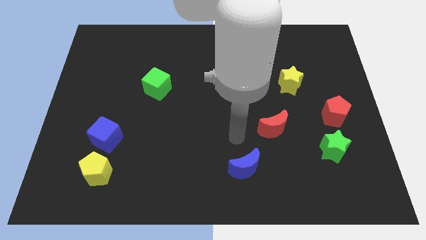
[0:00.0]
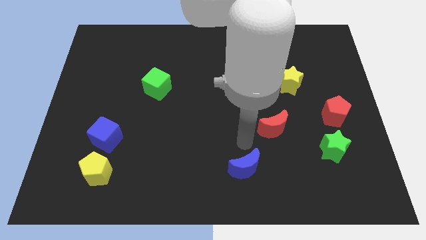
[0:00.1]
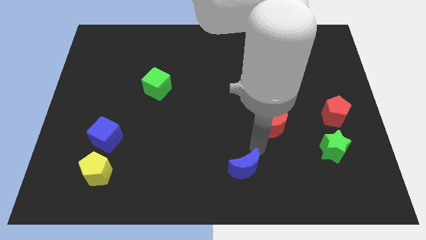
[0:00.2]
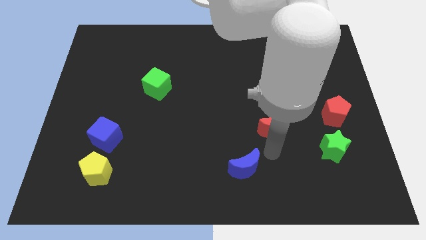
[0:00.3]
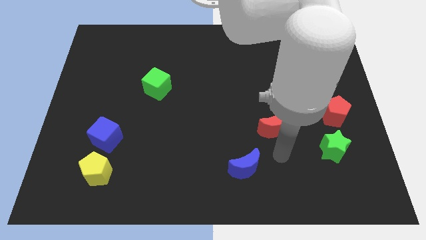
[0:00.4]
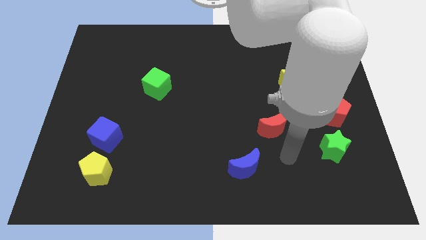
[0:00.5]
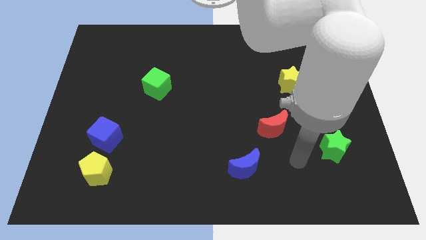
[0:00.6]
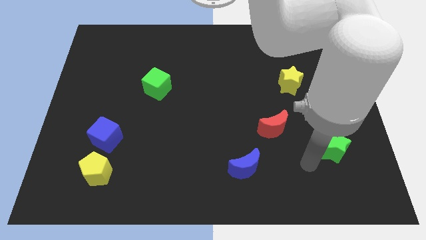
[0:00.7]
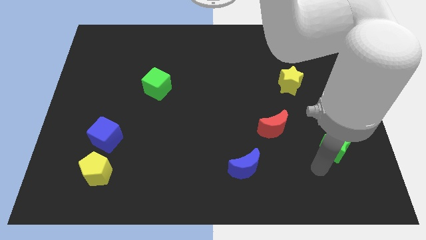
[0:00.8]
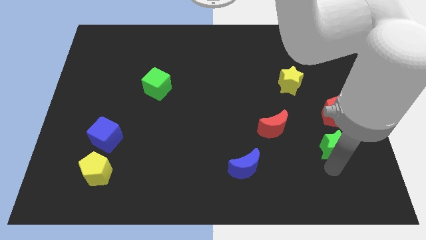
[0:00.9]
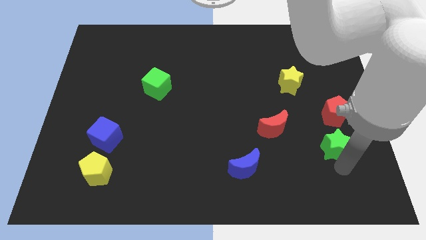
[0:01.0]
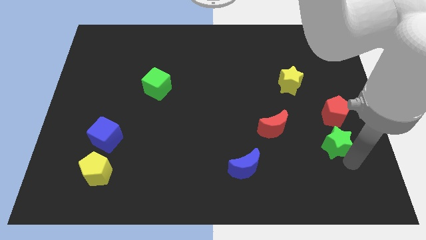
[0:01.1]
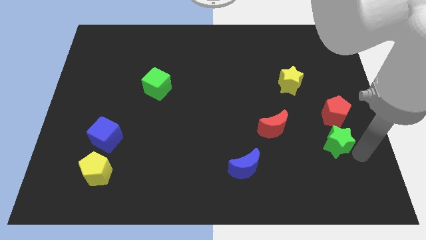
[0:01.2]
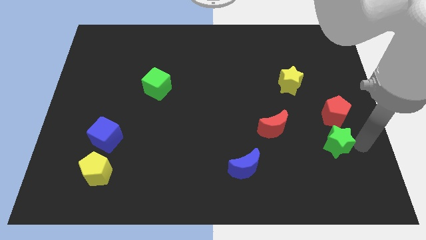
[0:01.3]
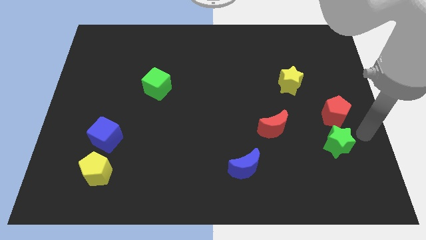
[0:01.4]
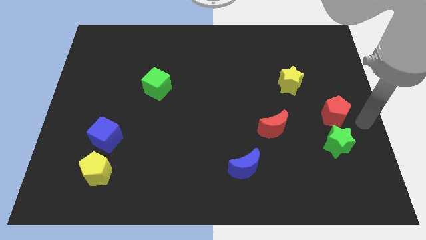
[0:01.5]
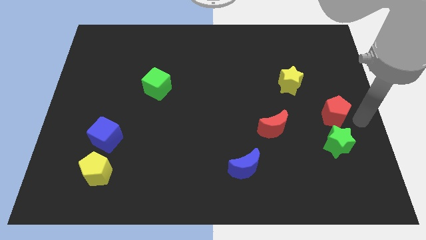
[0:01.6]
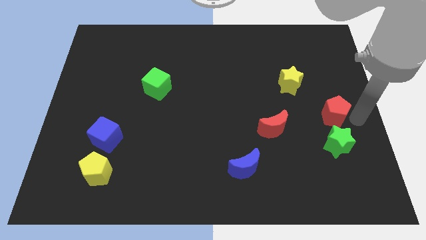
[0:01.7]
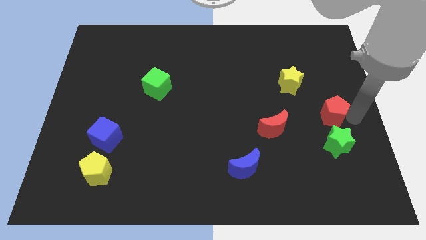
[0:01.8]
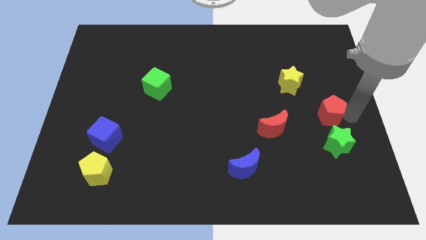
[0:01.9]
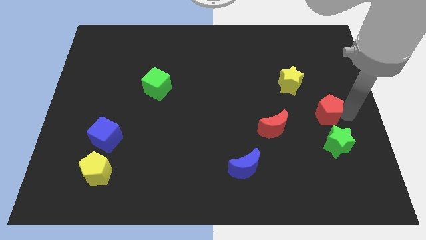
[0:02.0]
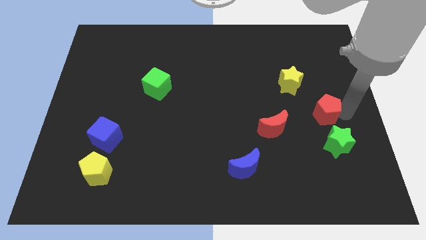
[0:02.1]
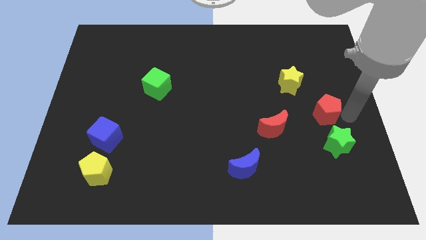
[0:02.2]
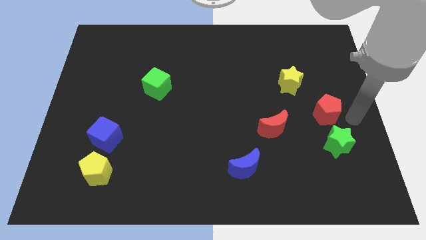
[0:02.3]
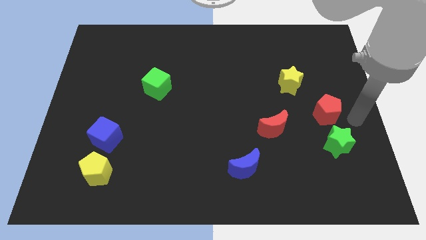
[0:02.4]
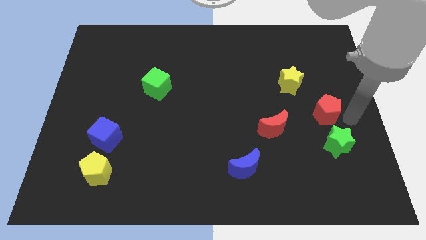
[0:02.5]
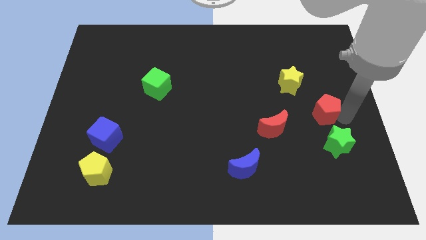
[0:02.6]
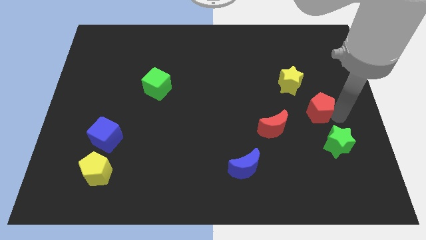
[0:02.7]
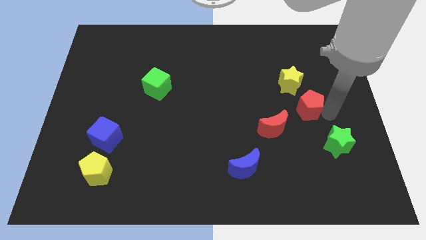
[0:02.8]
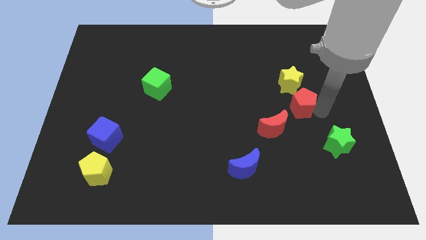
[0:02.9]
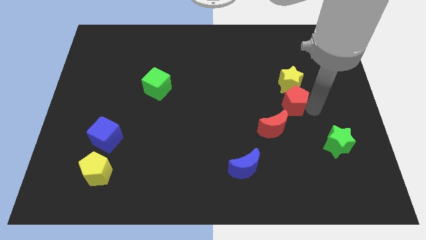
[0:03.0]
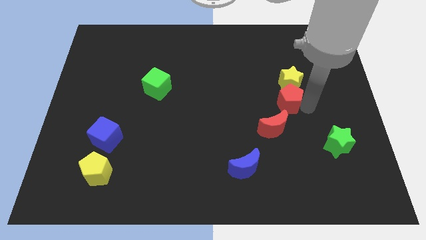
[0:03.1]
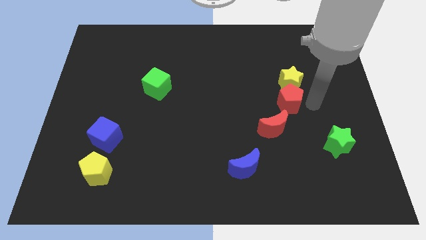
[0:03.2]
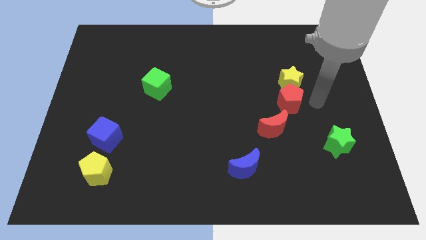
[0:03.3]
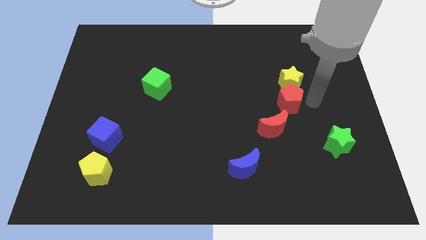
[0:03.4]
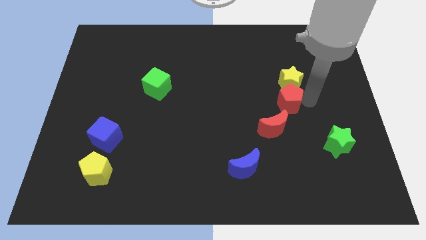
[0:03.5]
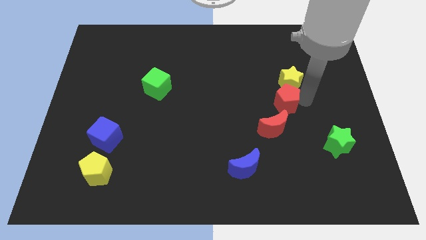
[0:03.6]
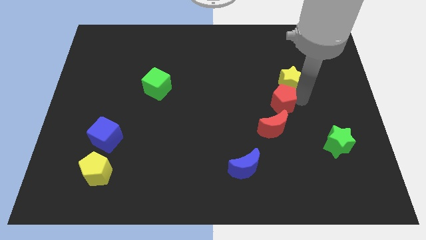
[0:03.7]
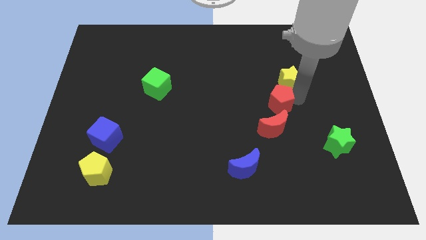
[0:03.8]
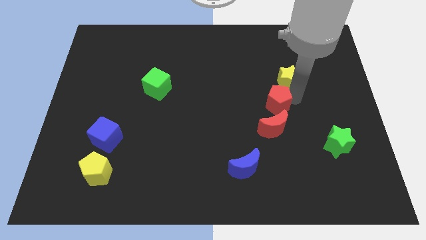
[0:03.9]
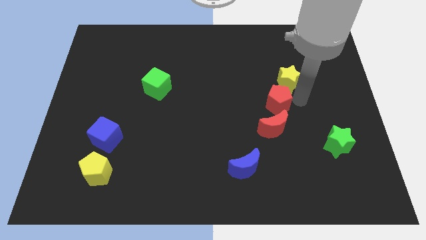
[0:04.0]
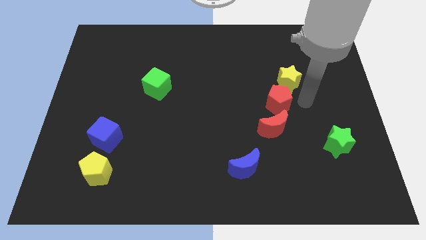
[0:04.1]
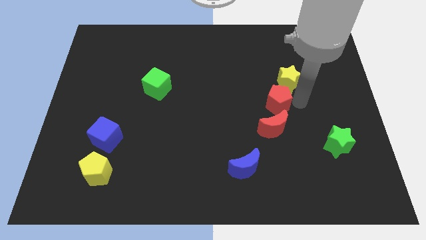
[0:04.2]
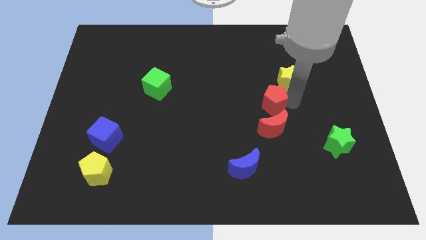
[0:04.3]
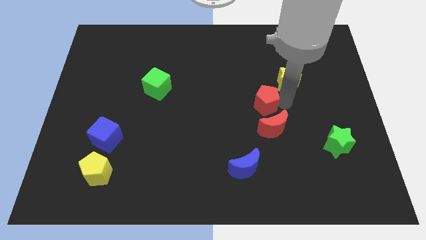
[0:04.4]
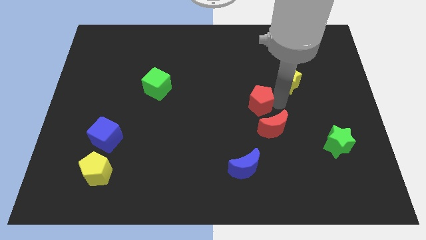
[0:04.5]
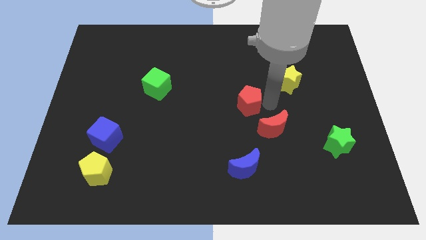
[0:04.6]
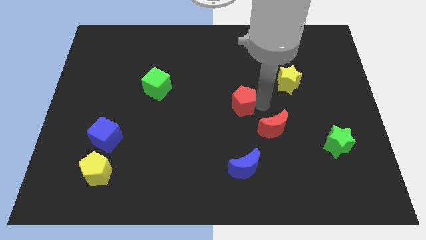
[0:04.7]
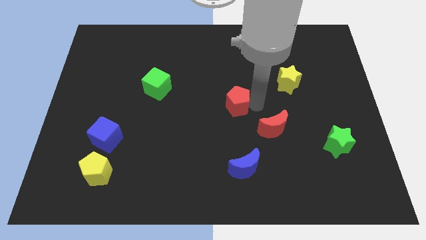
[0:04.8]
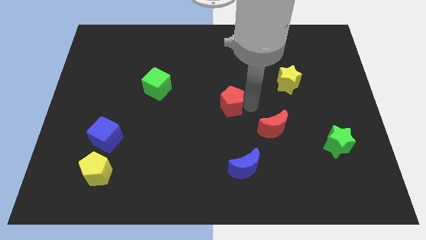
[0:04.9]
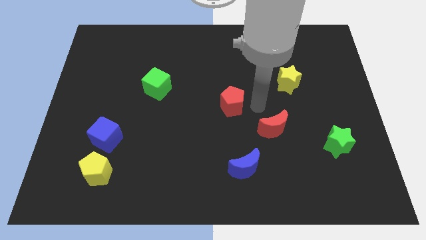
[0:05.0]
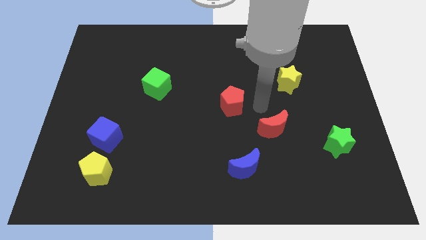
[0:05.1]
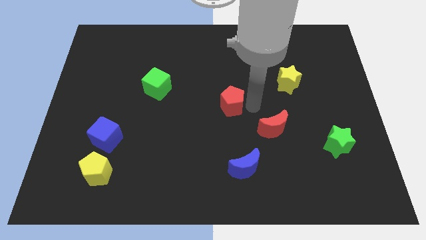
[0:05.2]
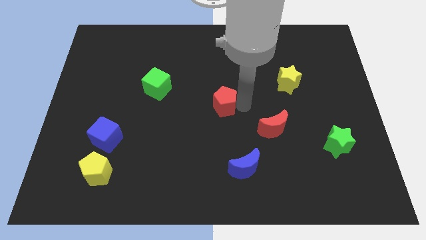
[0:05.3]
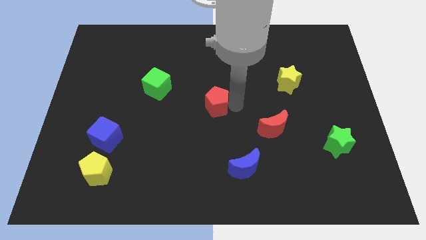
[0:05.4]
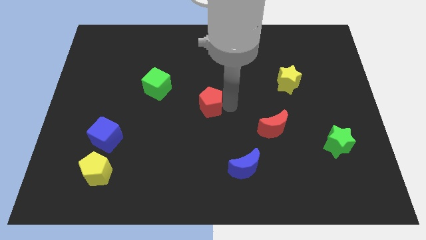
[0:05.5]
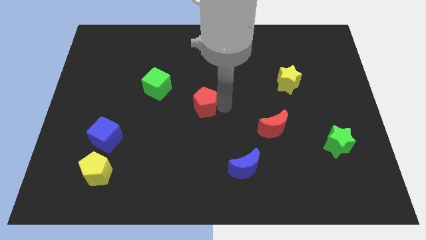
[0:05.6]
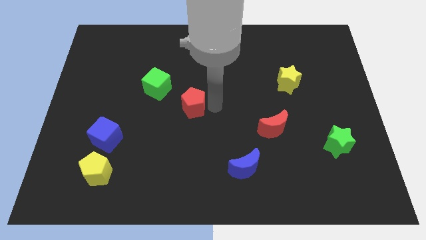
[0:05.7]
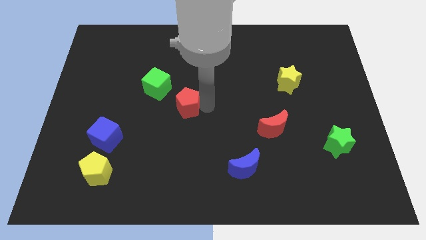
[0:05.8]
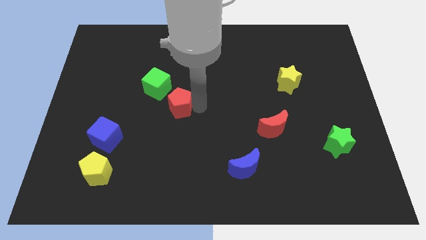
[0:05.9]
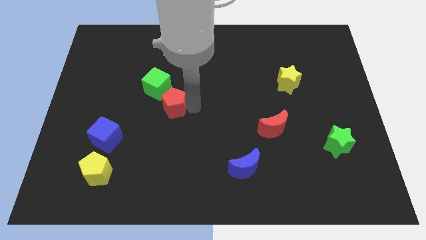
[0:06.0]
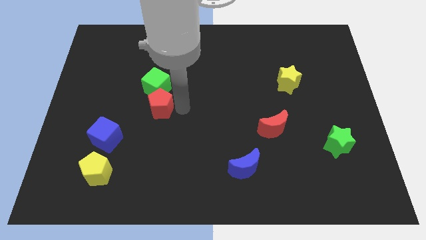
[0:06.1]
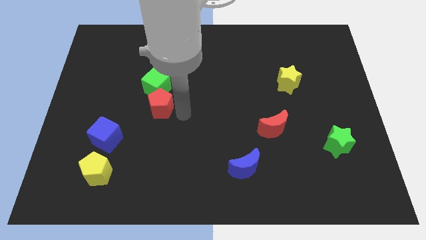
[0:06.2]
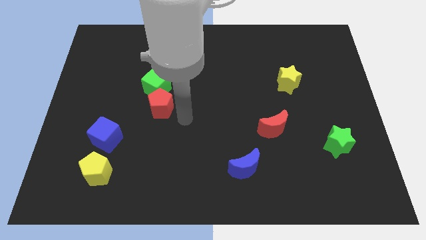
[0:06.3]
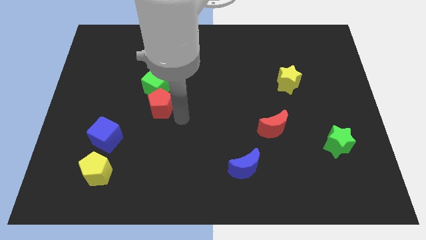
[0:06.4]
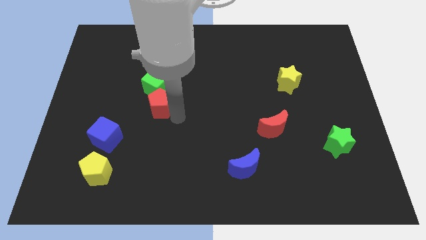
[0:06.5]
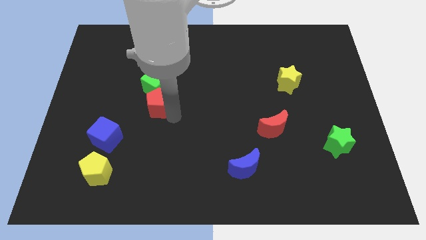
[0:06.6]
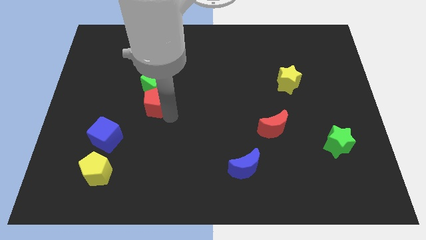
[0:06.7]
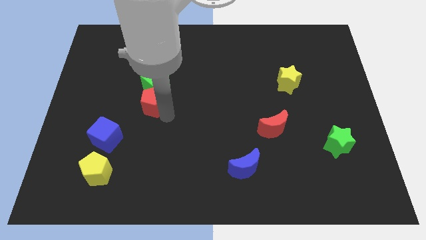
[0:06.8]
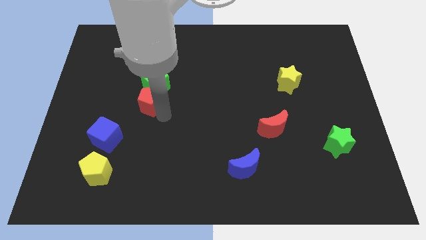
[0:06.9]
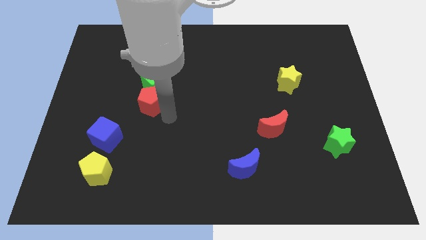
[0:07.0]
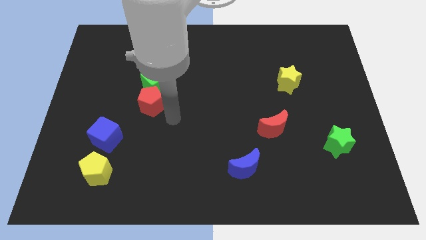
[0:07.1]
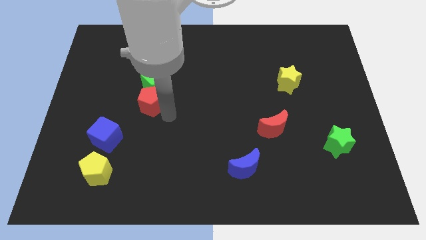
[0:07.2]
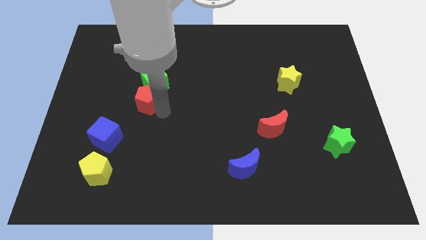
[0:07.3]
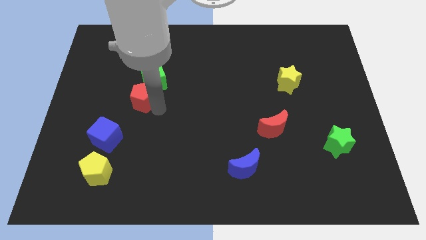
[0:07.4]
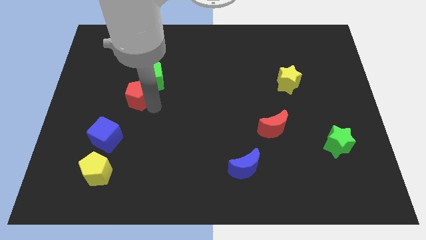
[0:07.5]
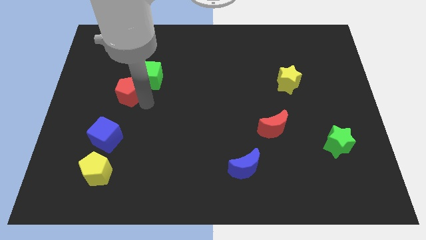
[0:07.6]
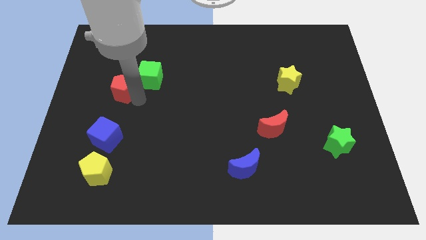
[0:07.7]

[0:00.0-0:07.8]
push the red pentagon left of the green cube
